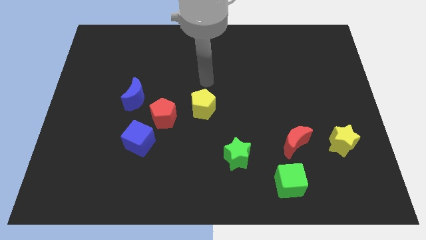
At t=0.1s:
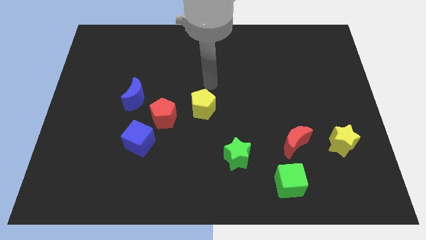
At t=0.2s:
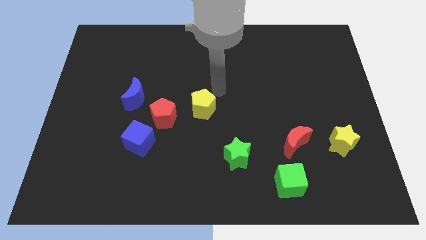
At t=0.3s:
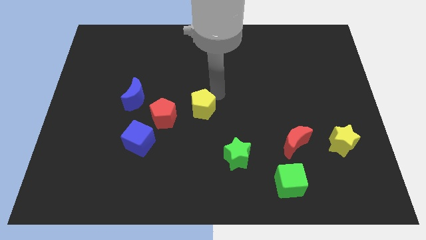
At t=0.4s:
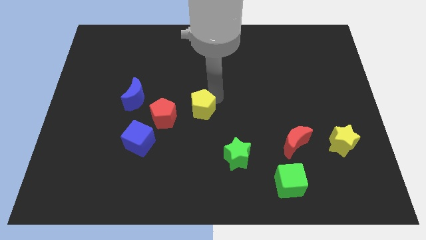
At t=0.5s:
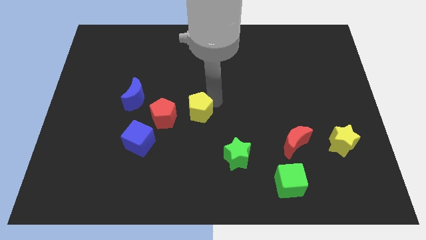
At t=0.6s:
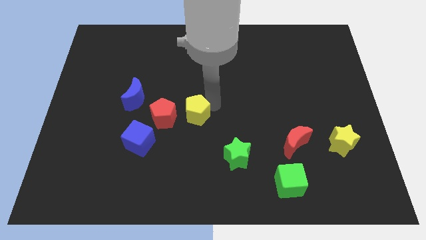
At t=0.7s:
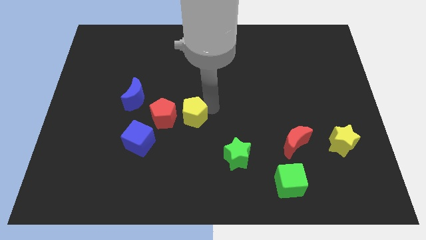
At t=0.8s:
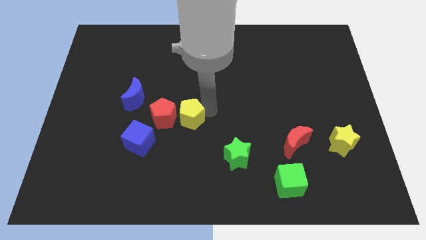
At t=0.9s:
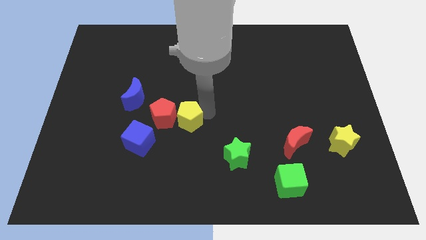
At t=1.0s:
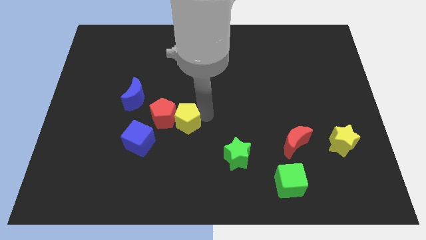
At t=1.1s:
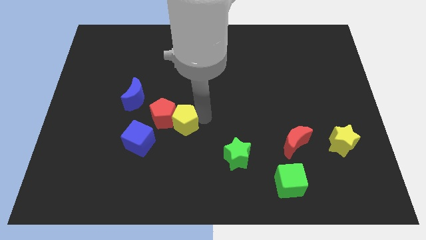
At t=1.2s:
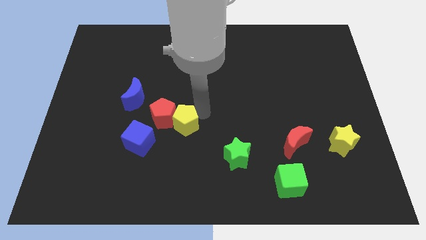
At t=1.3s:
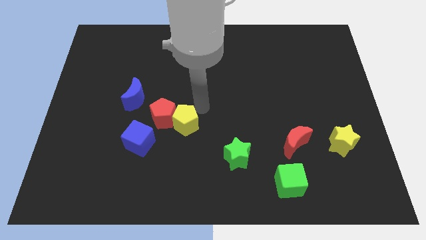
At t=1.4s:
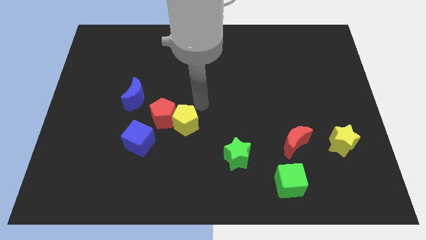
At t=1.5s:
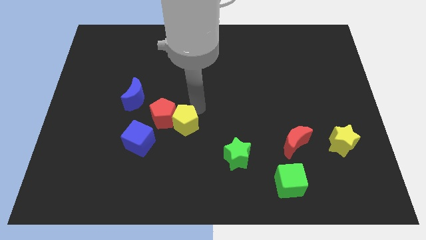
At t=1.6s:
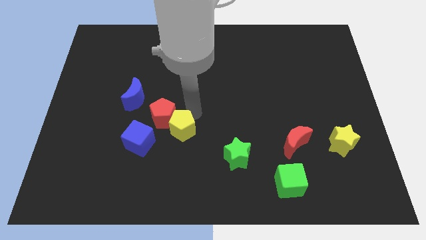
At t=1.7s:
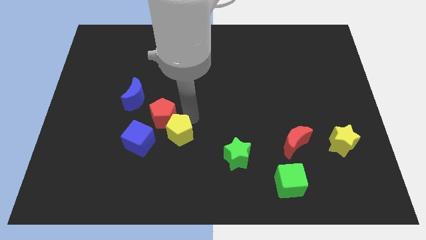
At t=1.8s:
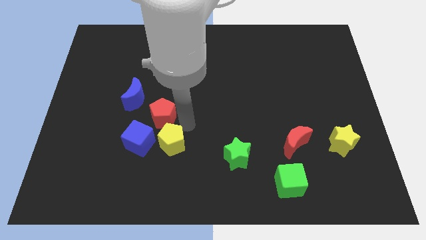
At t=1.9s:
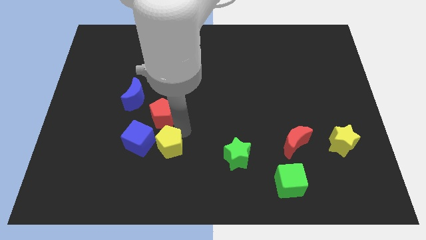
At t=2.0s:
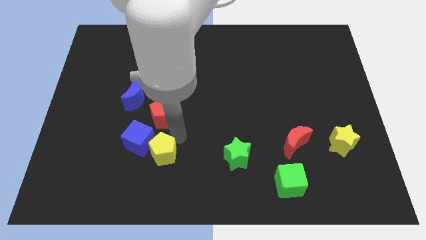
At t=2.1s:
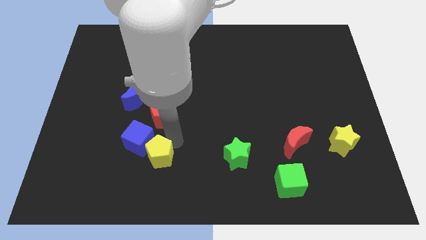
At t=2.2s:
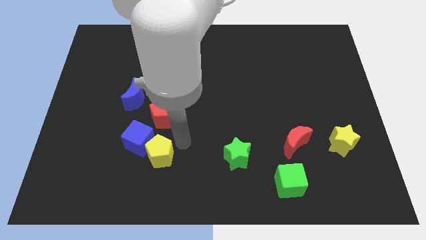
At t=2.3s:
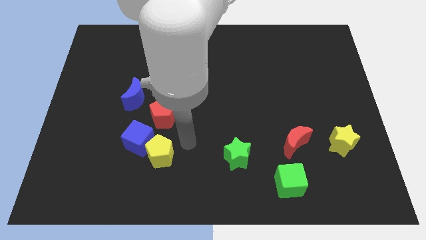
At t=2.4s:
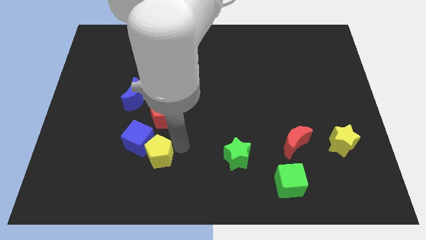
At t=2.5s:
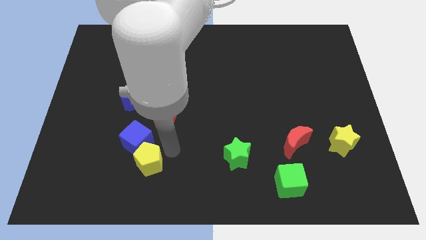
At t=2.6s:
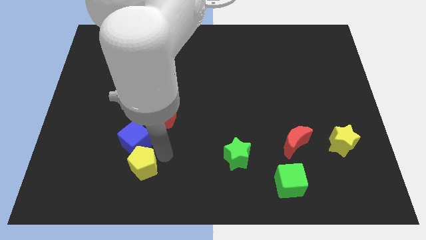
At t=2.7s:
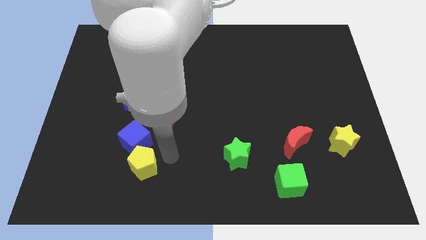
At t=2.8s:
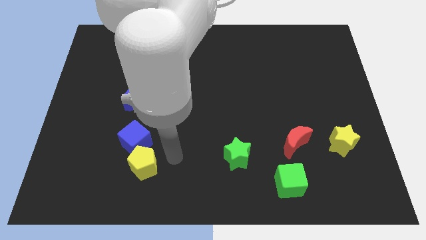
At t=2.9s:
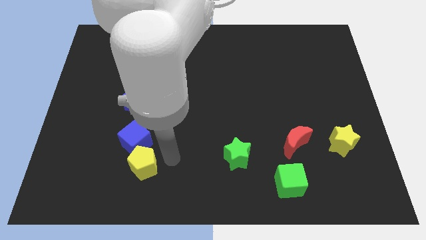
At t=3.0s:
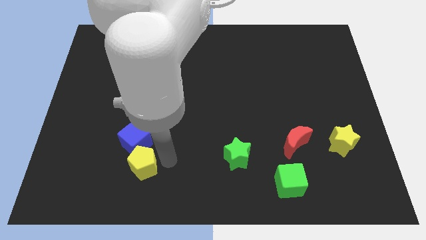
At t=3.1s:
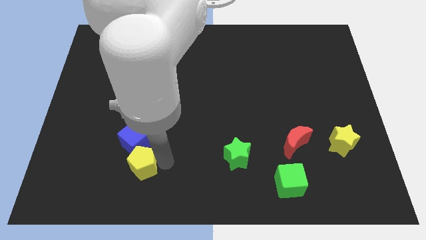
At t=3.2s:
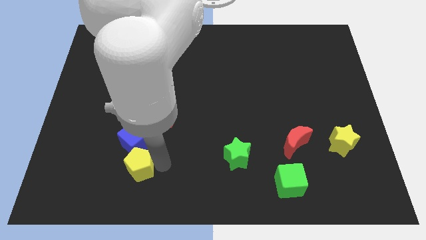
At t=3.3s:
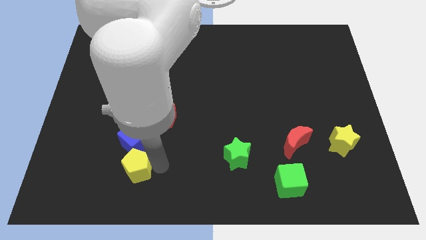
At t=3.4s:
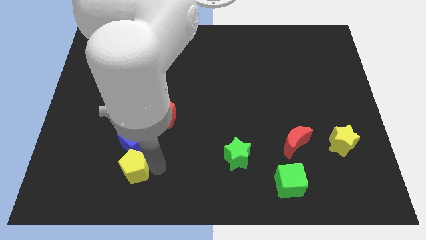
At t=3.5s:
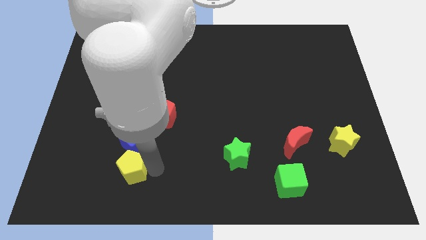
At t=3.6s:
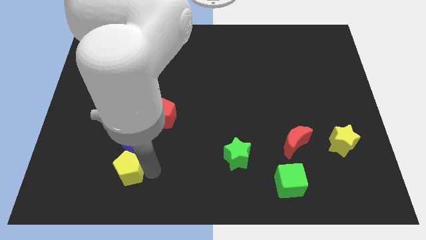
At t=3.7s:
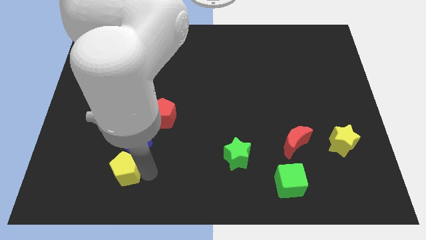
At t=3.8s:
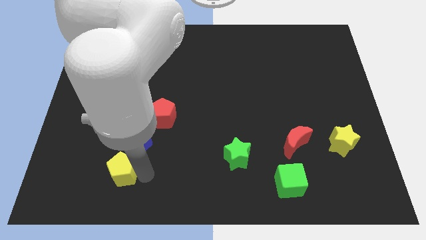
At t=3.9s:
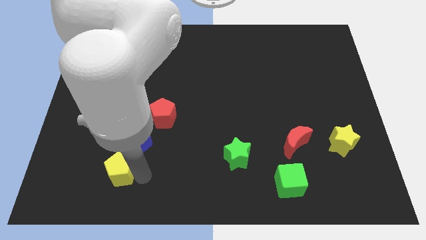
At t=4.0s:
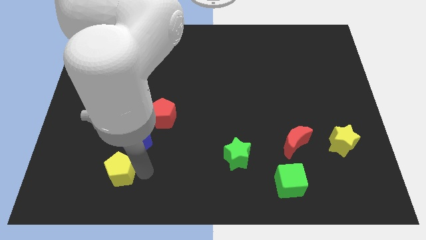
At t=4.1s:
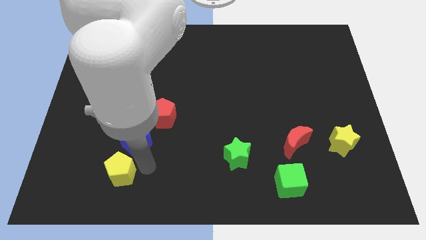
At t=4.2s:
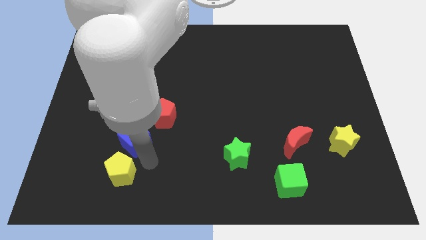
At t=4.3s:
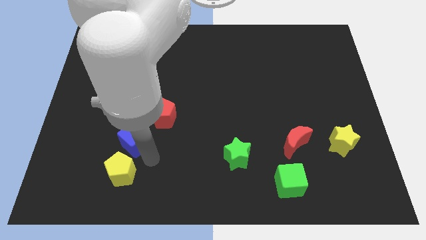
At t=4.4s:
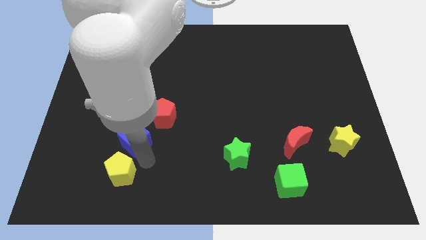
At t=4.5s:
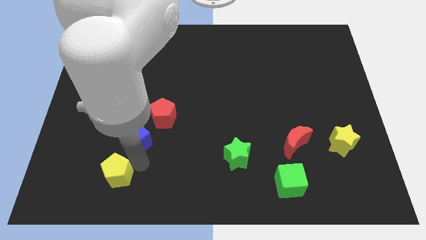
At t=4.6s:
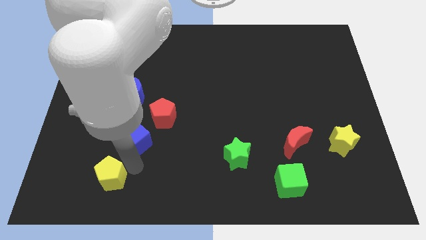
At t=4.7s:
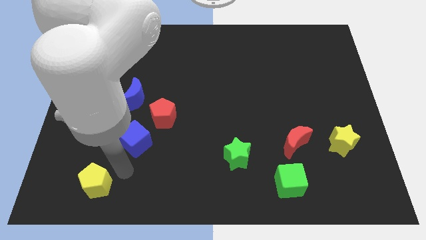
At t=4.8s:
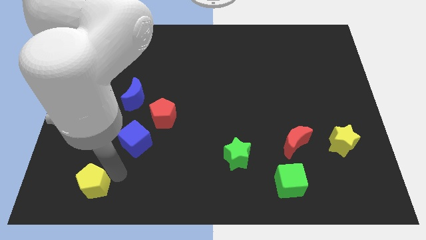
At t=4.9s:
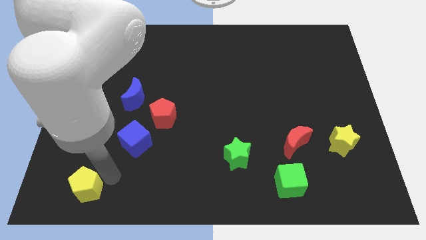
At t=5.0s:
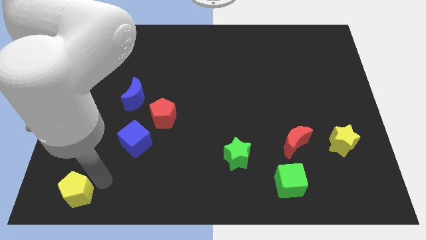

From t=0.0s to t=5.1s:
move the yellow pentagon to the bottom left

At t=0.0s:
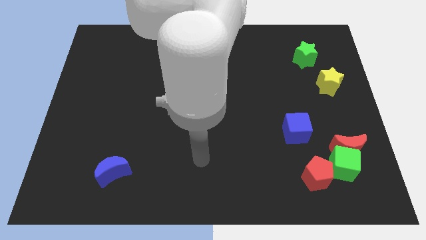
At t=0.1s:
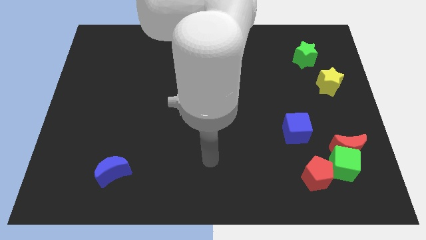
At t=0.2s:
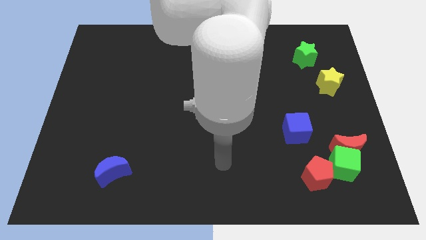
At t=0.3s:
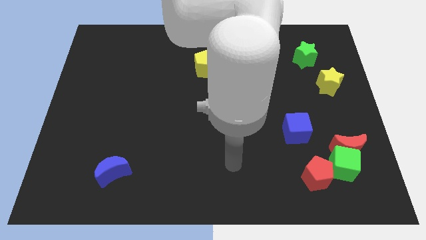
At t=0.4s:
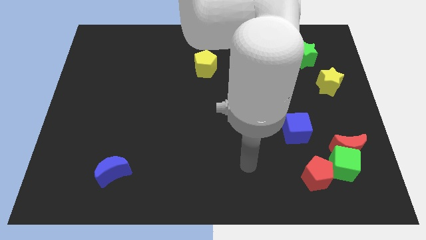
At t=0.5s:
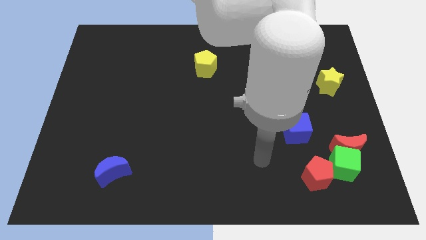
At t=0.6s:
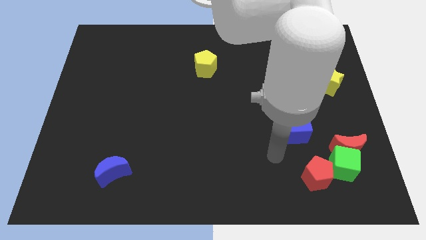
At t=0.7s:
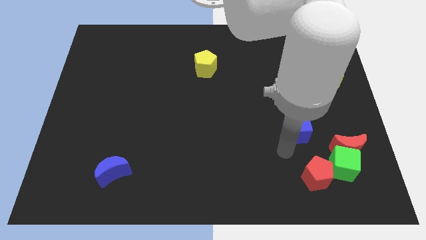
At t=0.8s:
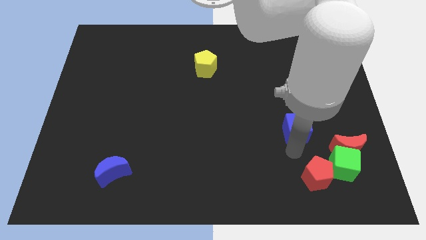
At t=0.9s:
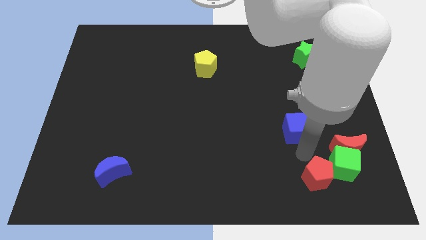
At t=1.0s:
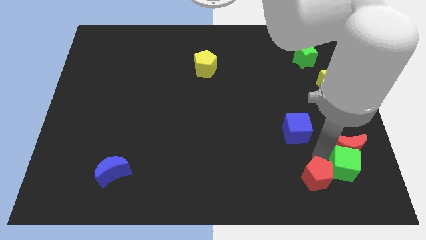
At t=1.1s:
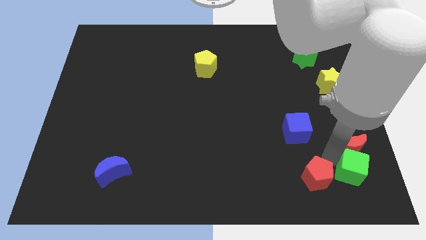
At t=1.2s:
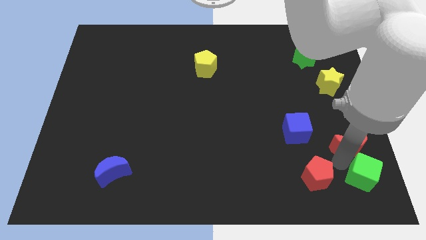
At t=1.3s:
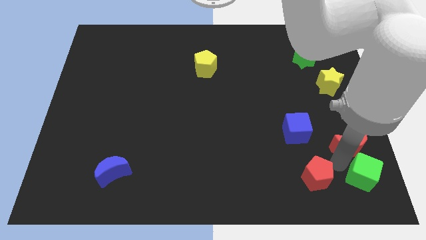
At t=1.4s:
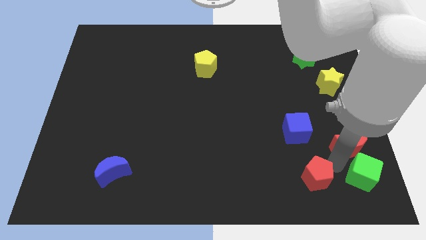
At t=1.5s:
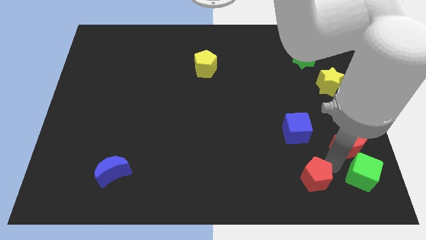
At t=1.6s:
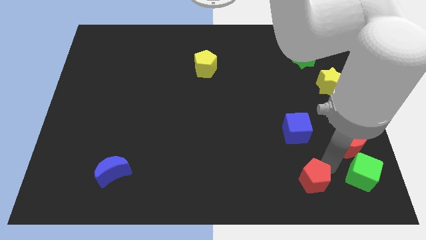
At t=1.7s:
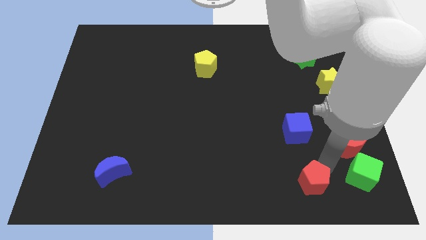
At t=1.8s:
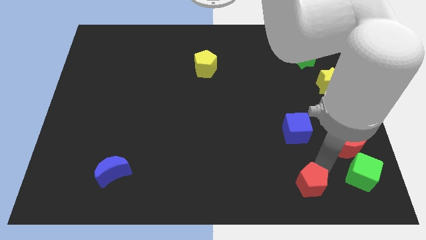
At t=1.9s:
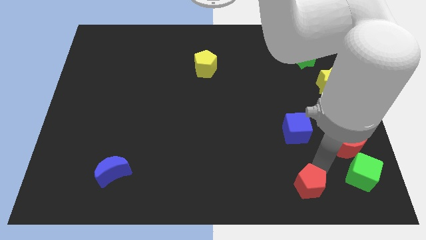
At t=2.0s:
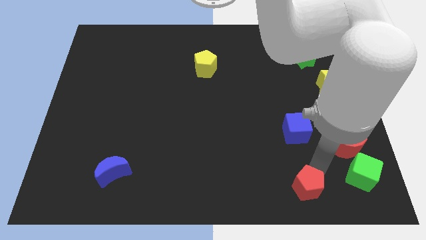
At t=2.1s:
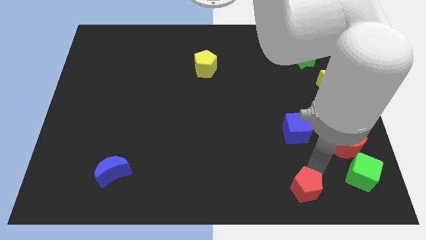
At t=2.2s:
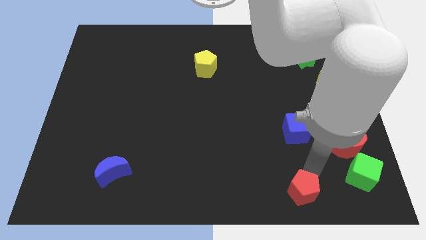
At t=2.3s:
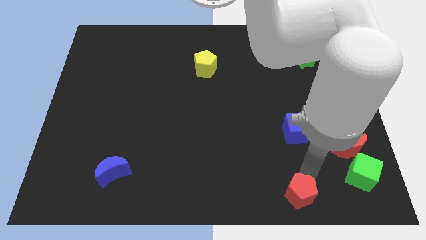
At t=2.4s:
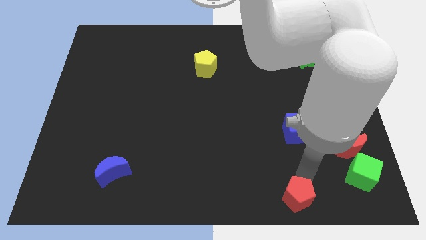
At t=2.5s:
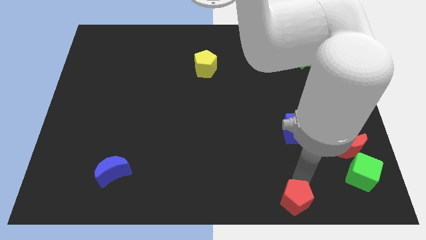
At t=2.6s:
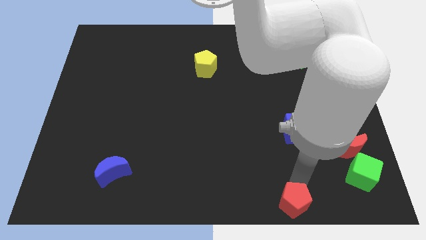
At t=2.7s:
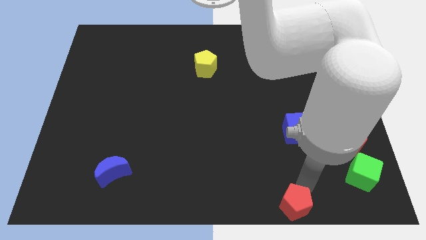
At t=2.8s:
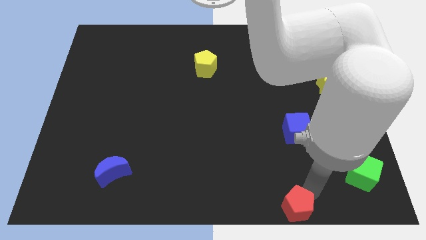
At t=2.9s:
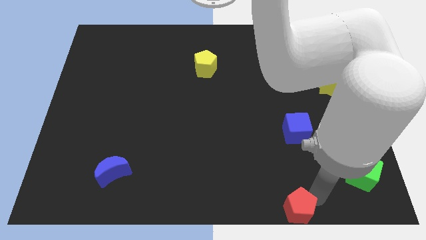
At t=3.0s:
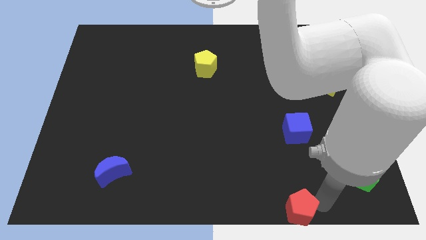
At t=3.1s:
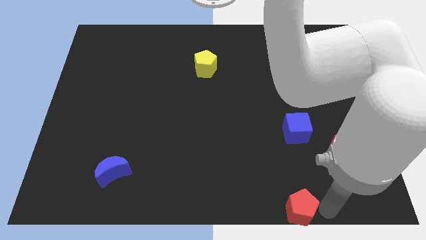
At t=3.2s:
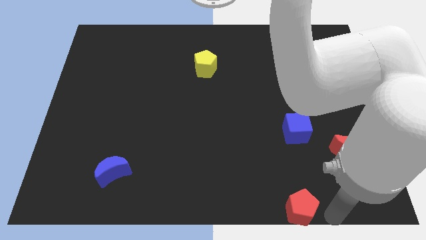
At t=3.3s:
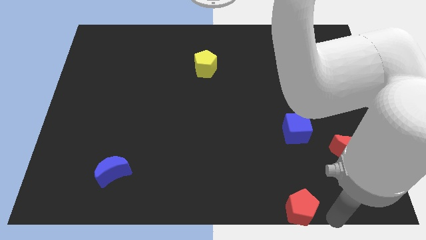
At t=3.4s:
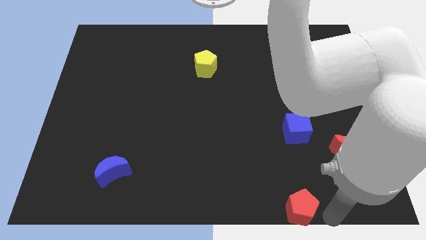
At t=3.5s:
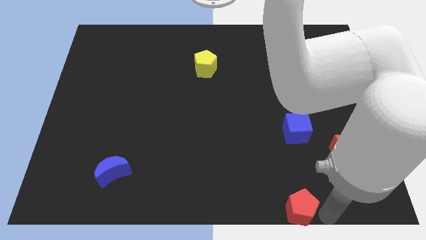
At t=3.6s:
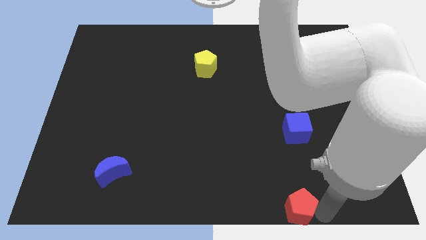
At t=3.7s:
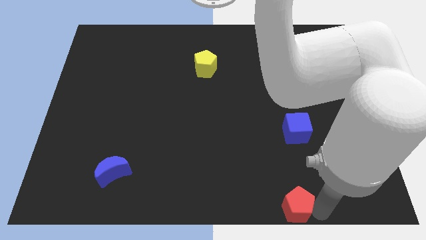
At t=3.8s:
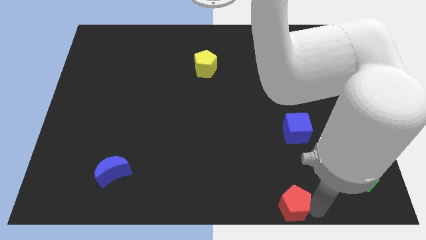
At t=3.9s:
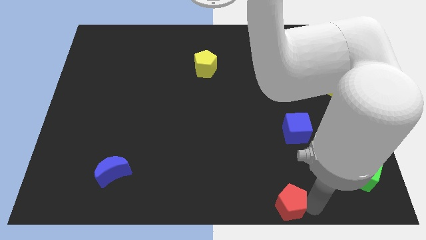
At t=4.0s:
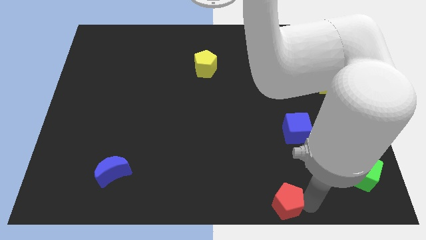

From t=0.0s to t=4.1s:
put the red pentagon to the bottom side
